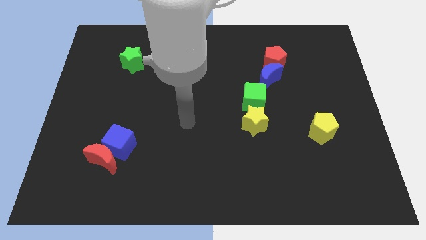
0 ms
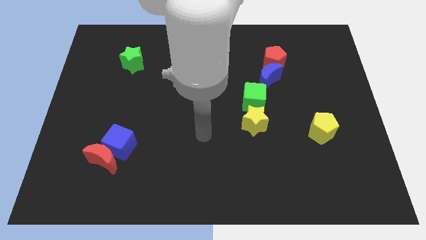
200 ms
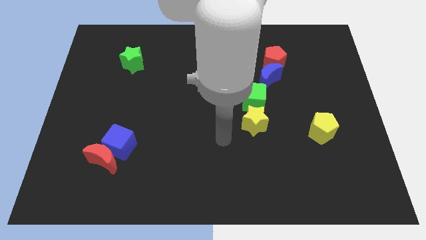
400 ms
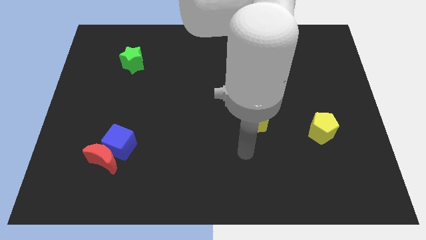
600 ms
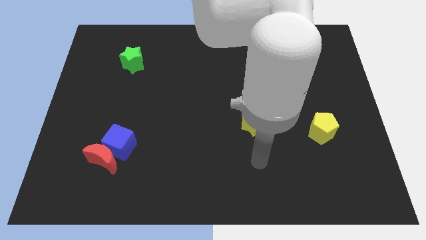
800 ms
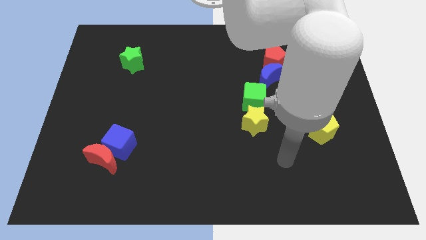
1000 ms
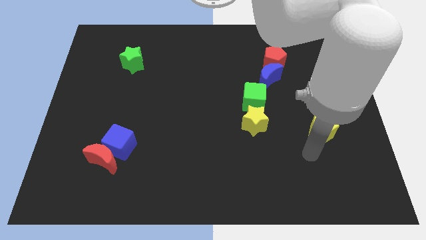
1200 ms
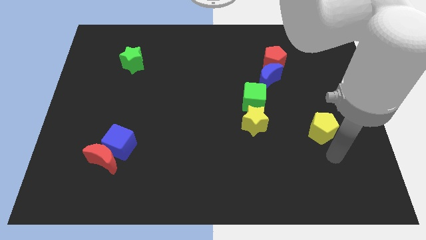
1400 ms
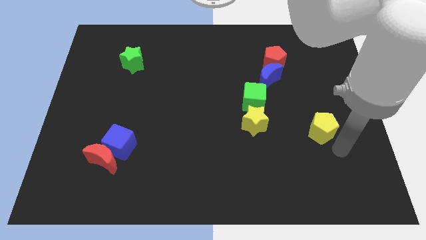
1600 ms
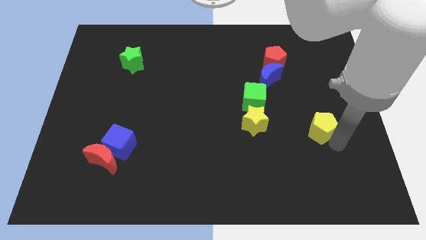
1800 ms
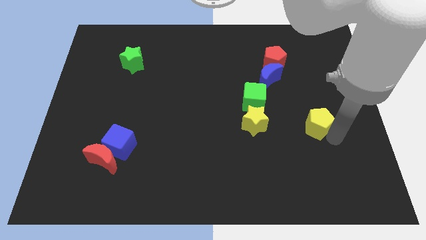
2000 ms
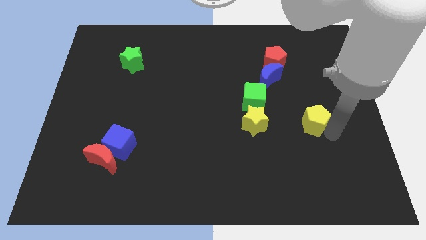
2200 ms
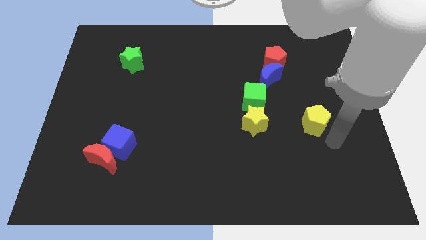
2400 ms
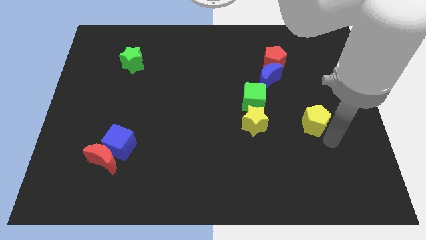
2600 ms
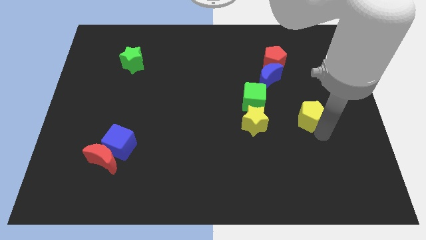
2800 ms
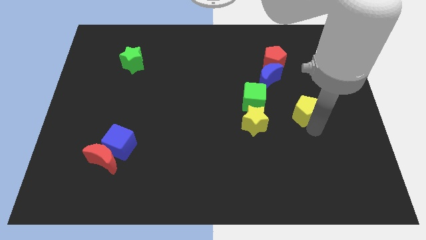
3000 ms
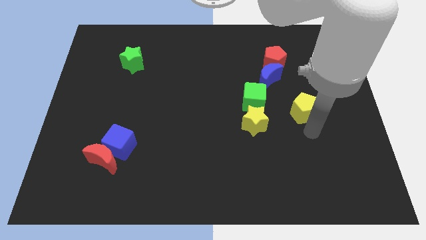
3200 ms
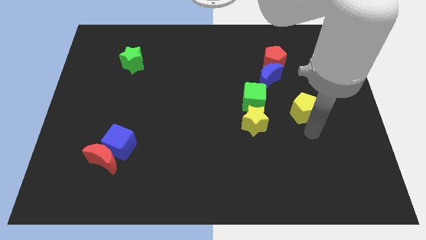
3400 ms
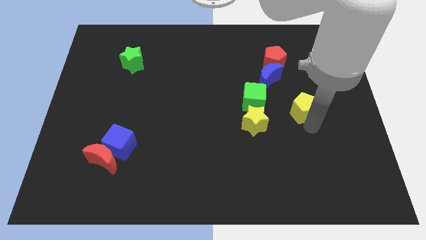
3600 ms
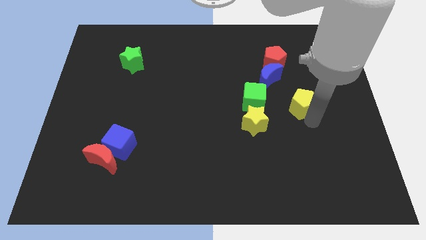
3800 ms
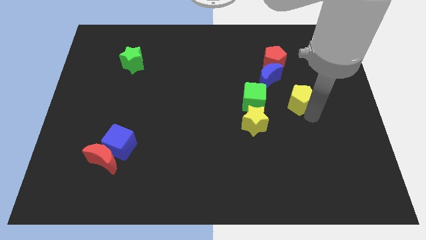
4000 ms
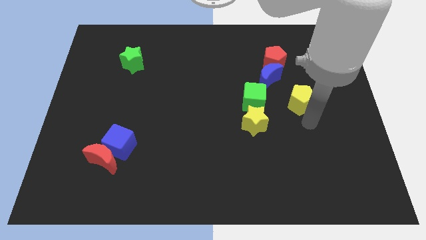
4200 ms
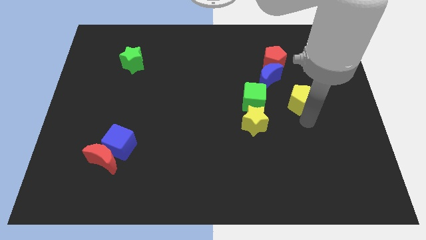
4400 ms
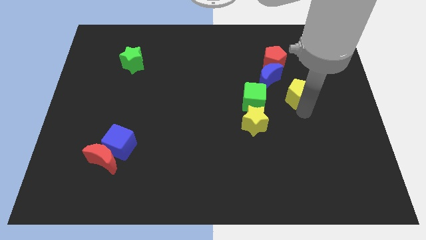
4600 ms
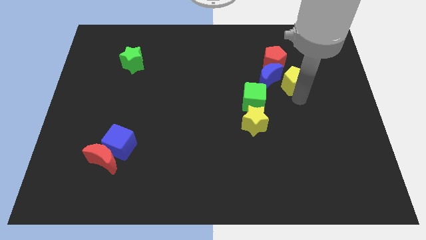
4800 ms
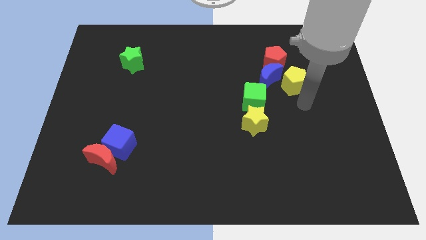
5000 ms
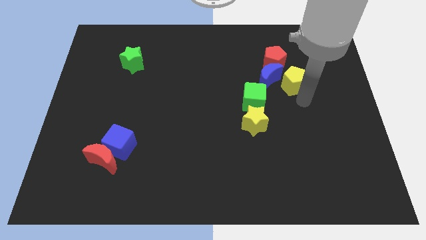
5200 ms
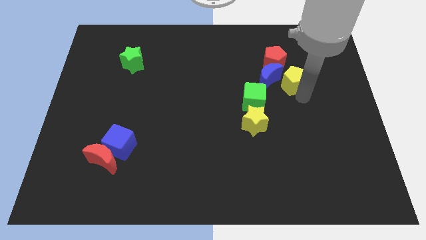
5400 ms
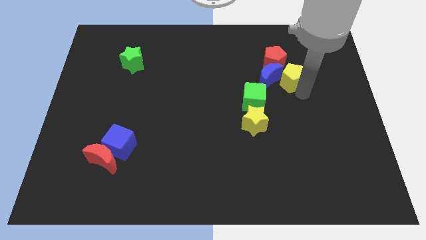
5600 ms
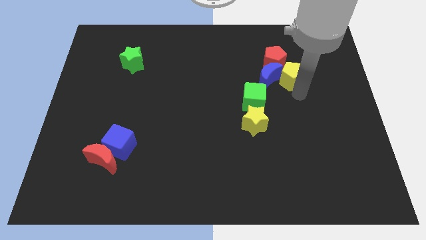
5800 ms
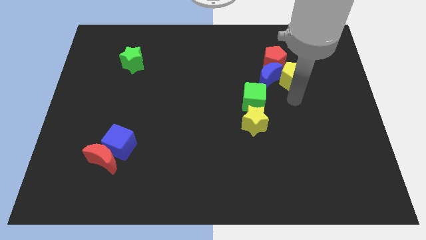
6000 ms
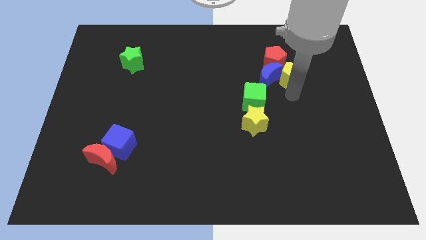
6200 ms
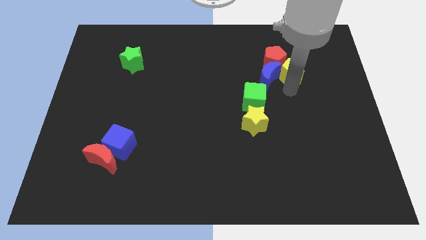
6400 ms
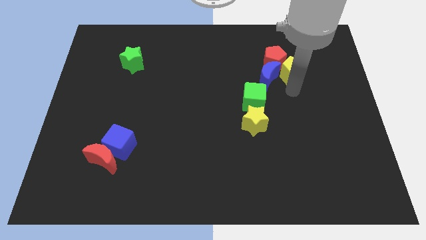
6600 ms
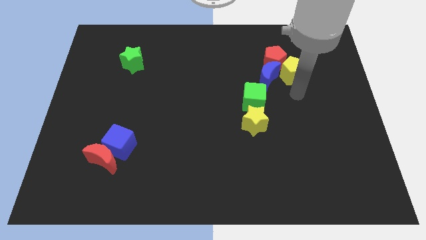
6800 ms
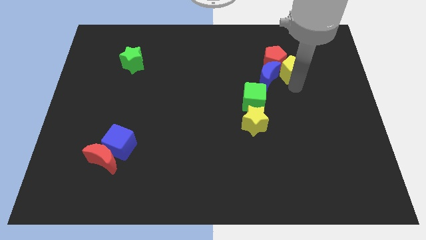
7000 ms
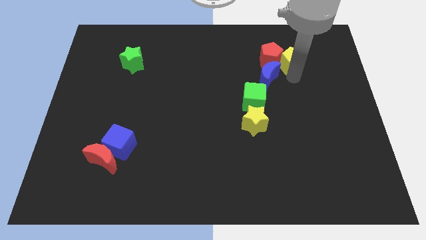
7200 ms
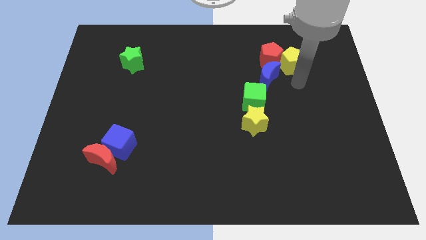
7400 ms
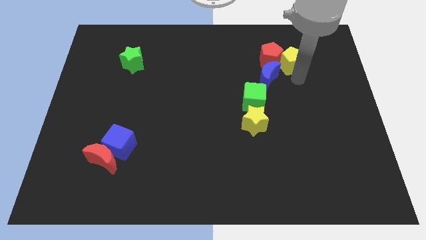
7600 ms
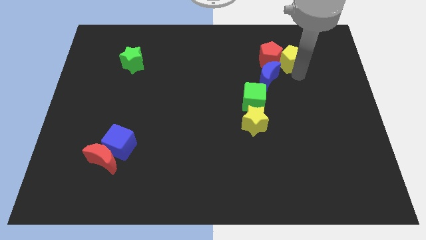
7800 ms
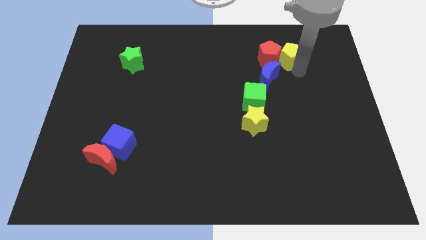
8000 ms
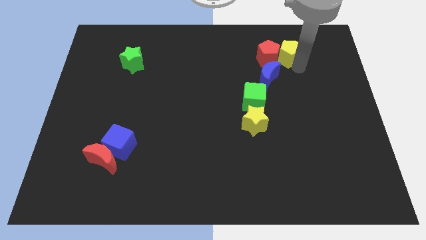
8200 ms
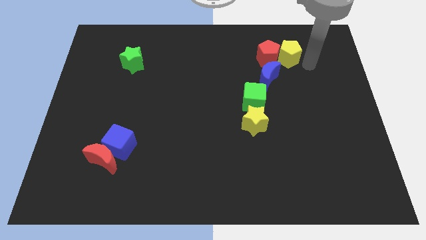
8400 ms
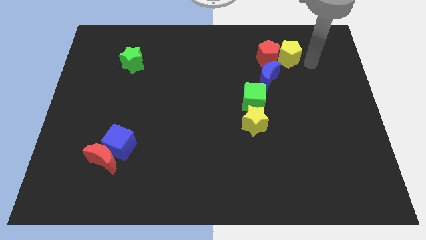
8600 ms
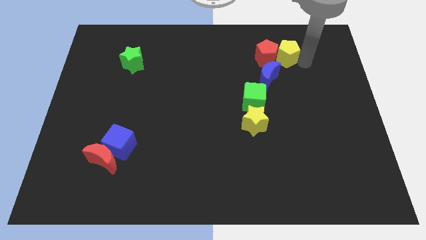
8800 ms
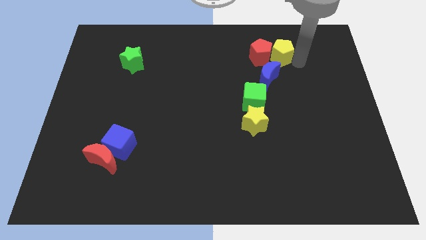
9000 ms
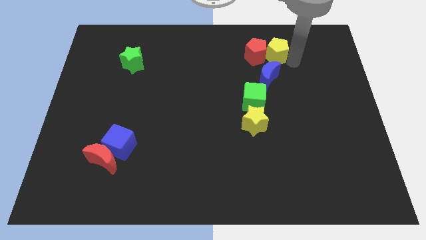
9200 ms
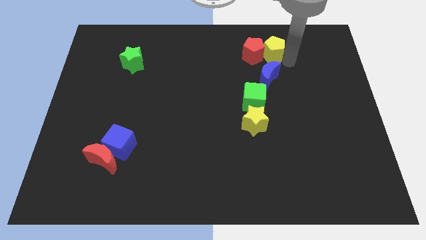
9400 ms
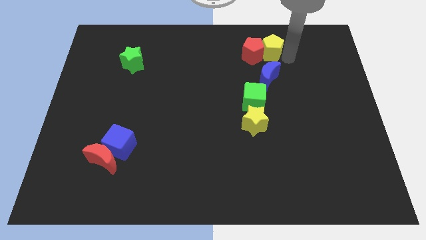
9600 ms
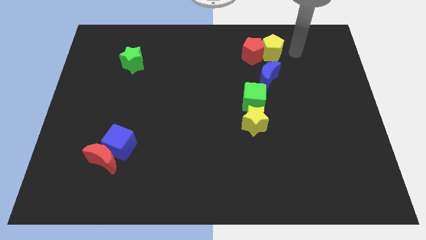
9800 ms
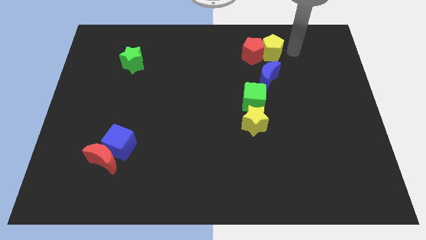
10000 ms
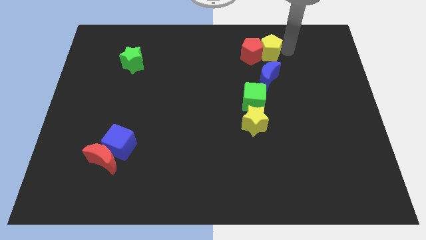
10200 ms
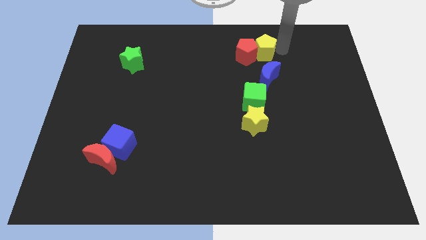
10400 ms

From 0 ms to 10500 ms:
move the yellow pentagon upwards and then left

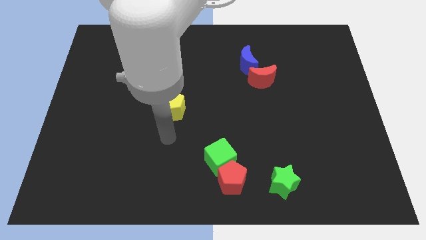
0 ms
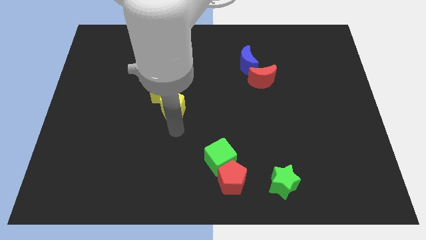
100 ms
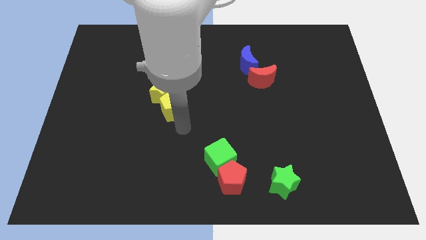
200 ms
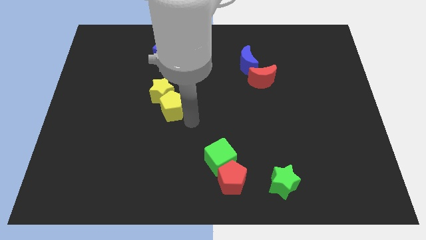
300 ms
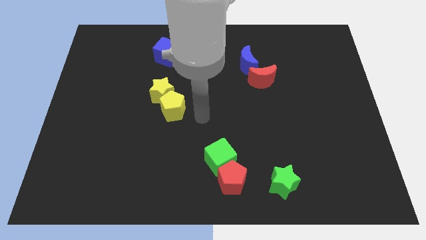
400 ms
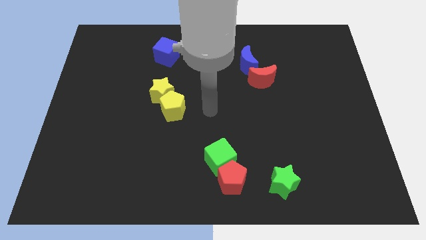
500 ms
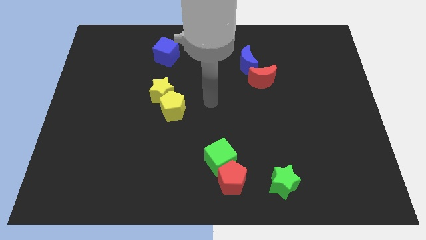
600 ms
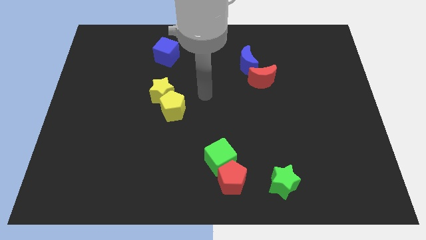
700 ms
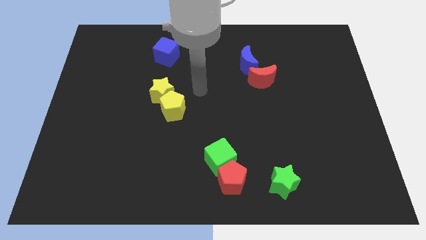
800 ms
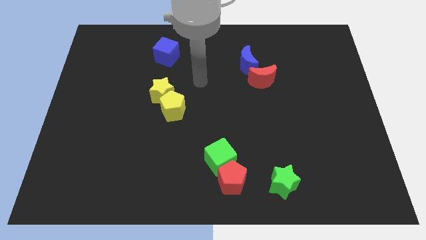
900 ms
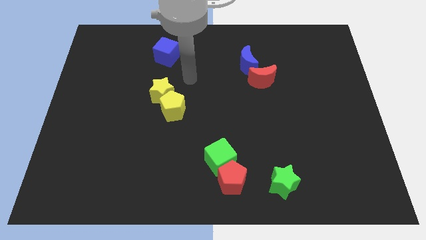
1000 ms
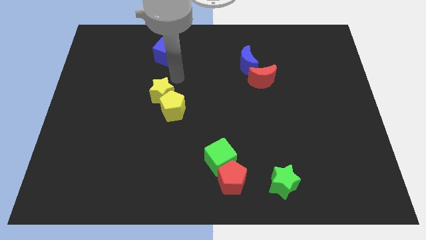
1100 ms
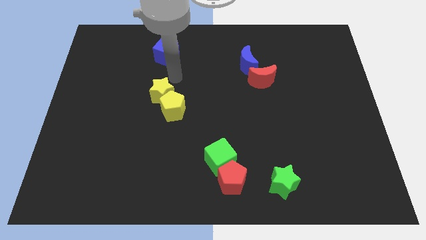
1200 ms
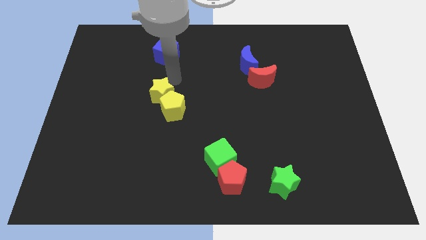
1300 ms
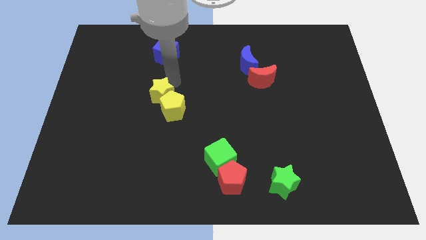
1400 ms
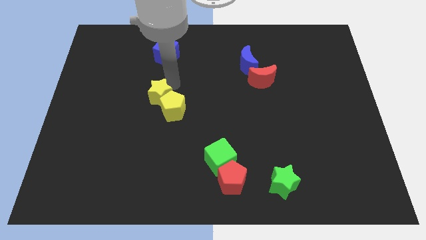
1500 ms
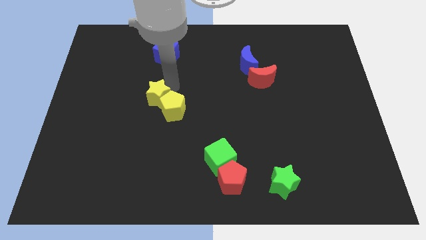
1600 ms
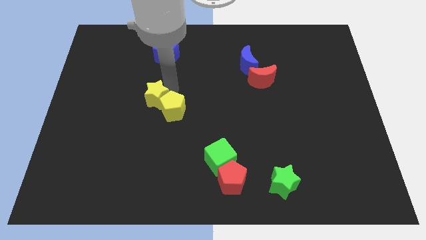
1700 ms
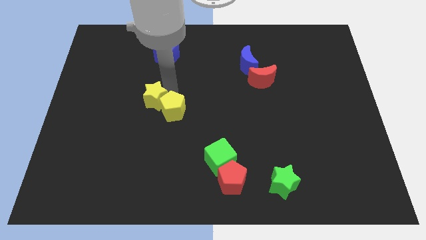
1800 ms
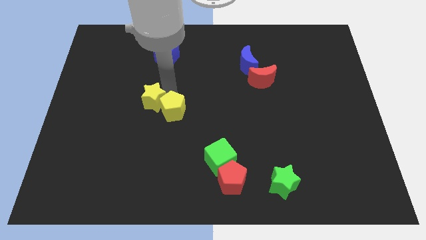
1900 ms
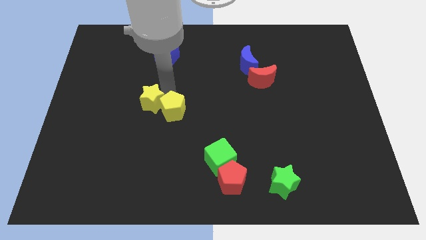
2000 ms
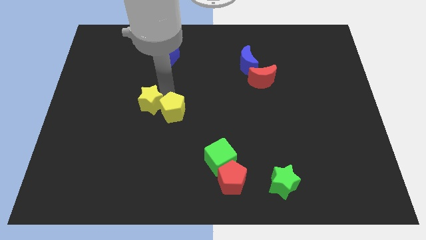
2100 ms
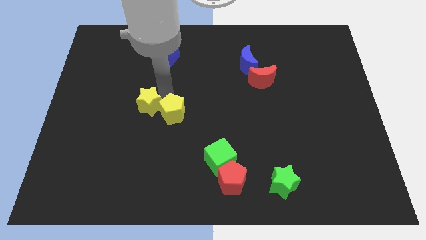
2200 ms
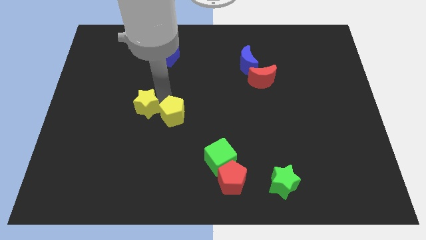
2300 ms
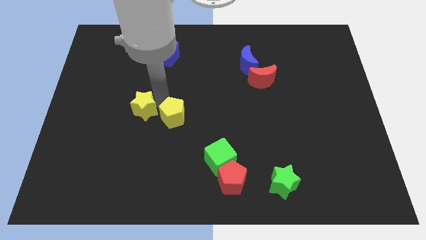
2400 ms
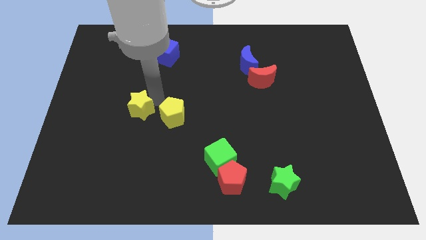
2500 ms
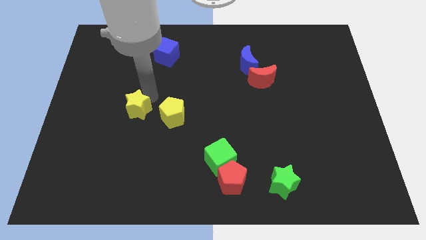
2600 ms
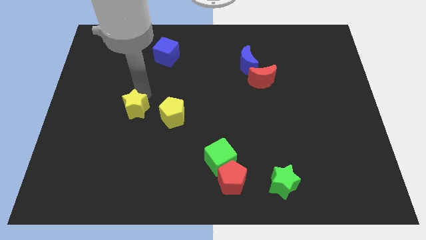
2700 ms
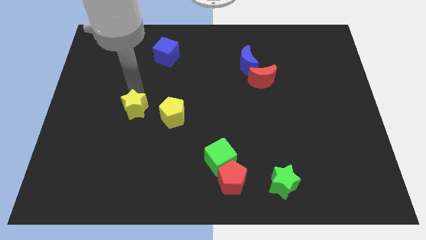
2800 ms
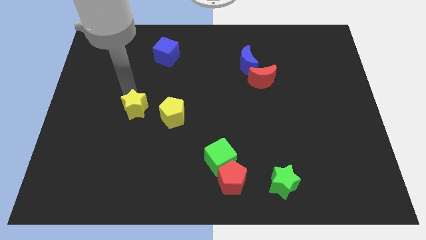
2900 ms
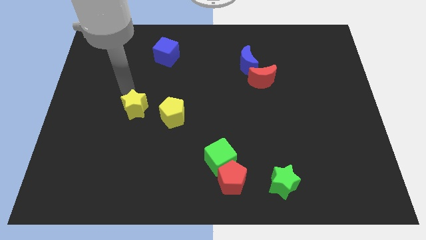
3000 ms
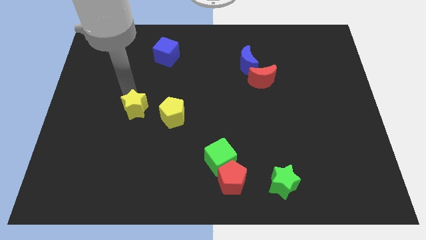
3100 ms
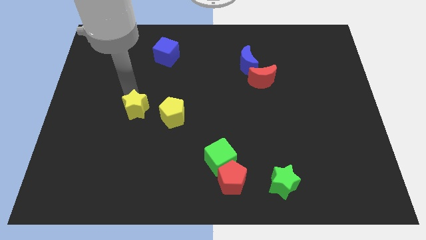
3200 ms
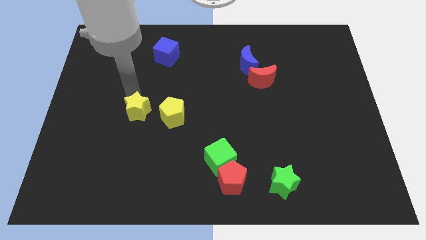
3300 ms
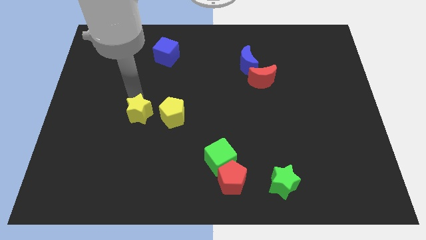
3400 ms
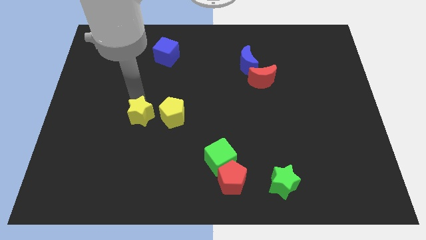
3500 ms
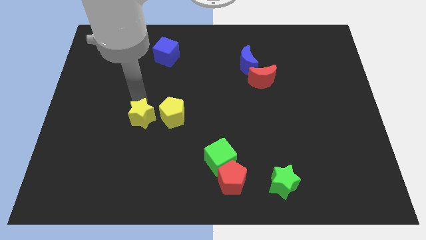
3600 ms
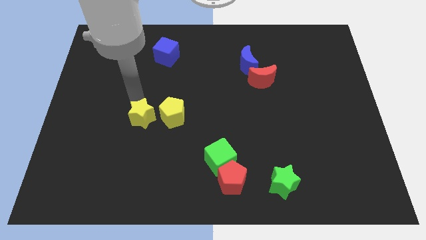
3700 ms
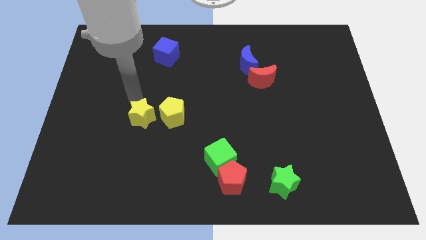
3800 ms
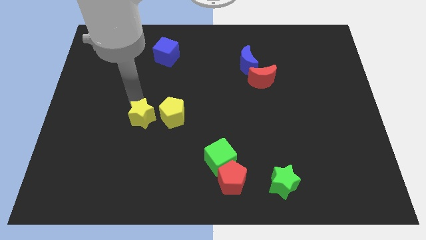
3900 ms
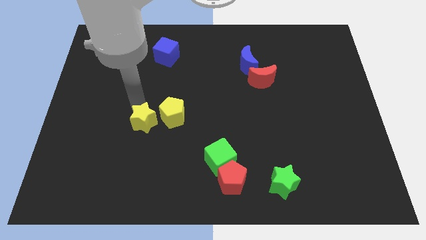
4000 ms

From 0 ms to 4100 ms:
slide the yellow star a little down
